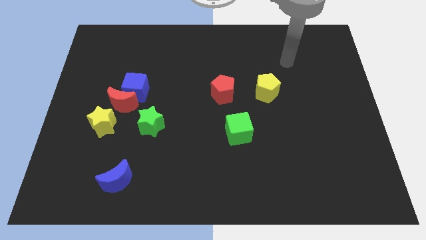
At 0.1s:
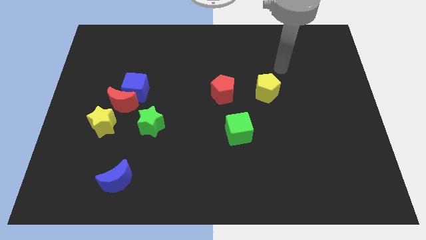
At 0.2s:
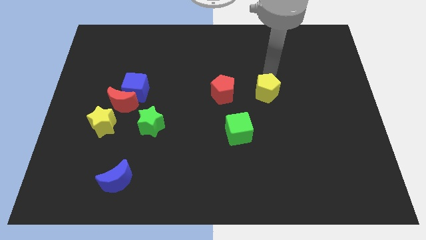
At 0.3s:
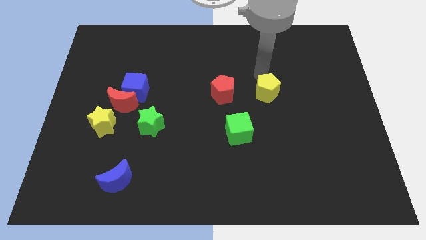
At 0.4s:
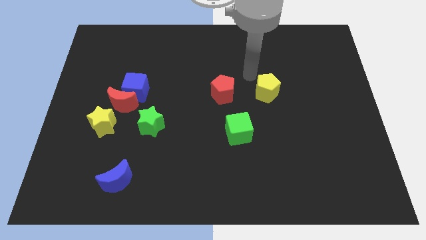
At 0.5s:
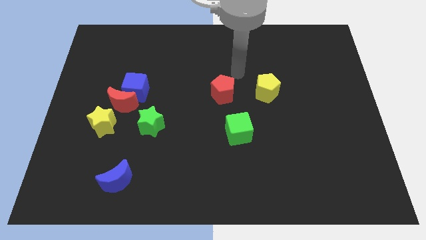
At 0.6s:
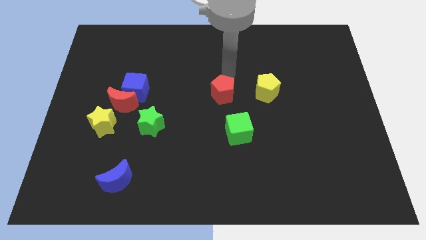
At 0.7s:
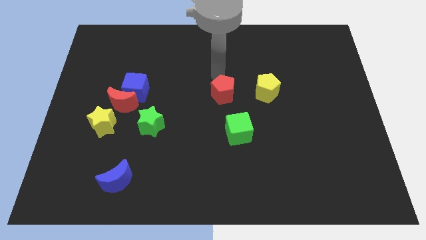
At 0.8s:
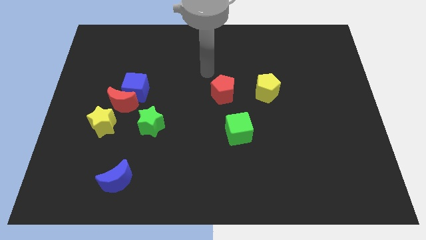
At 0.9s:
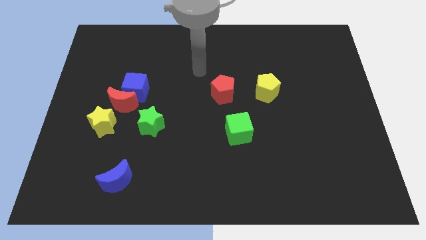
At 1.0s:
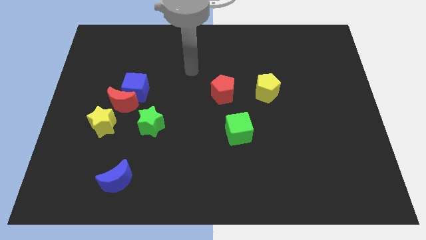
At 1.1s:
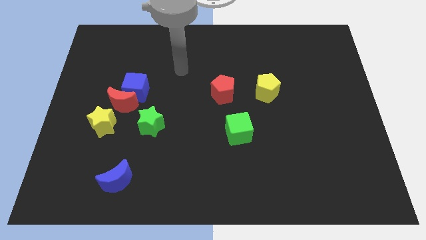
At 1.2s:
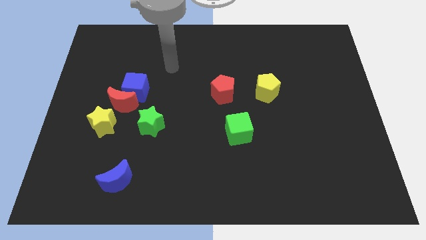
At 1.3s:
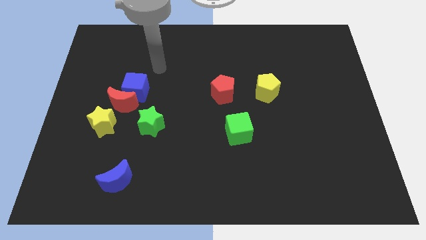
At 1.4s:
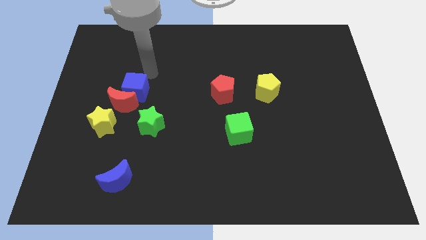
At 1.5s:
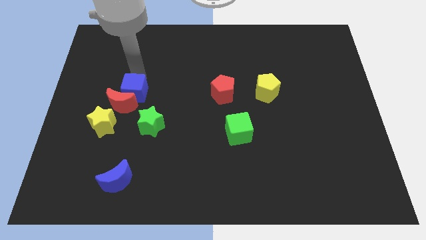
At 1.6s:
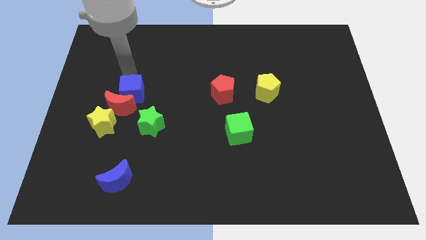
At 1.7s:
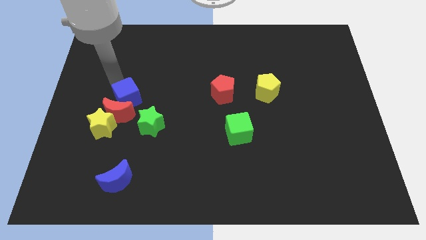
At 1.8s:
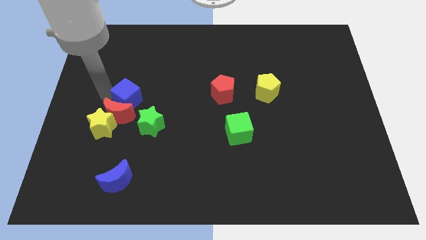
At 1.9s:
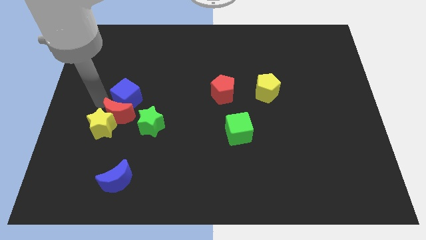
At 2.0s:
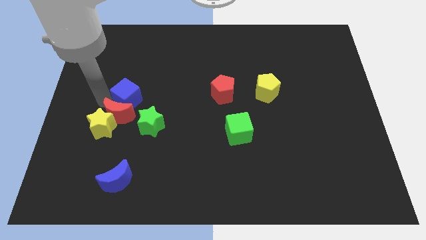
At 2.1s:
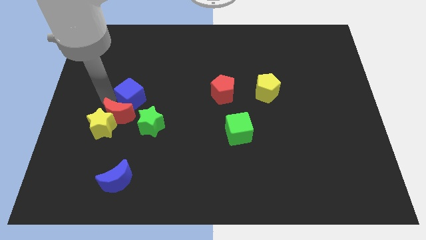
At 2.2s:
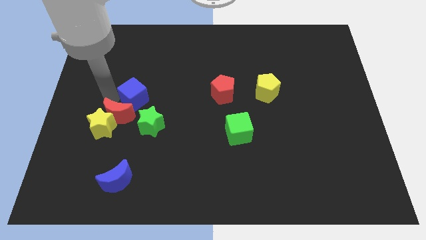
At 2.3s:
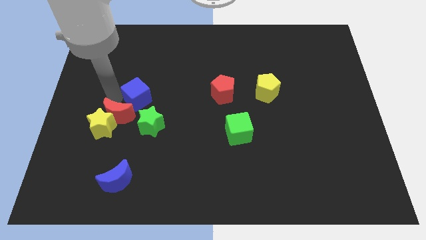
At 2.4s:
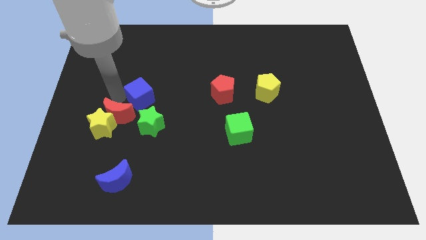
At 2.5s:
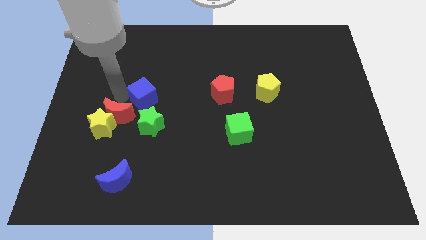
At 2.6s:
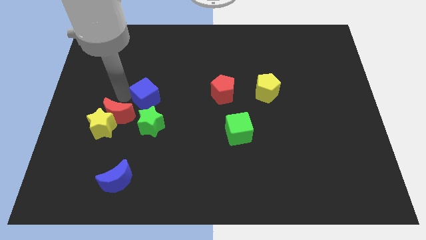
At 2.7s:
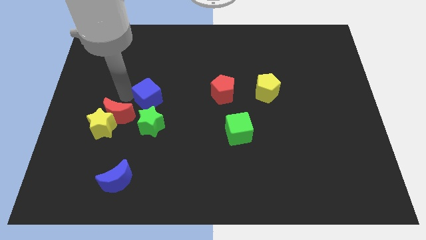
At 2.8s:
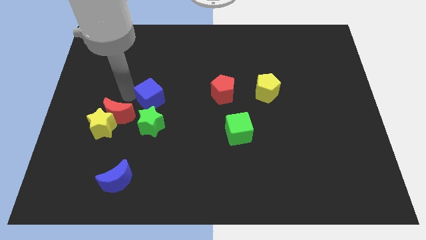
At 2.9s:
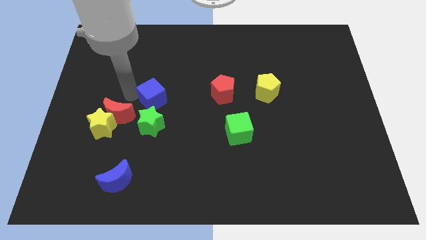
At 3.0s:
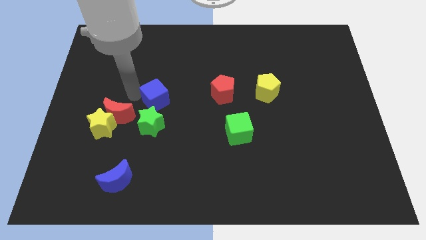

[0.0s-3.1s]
put the blue cube just left of the red pentagon

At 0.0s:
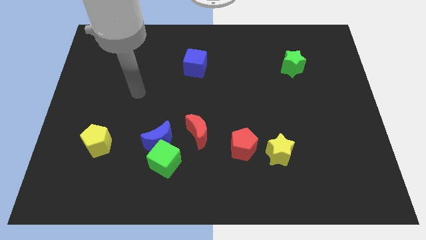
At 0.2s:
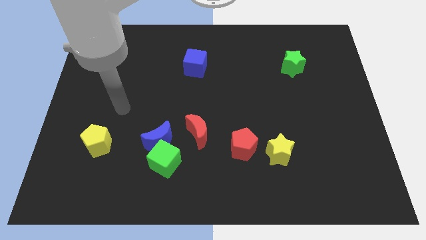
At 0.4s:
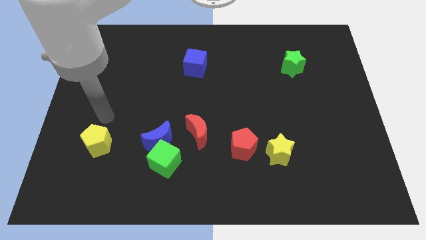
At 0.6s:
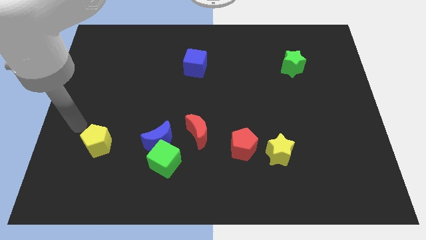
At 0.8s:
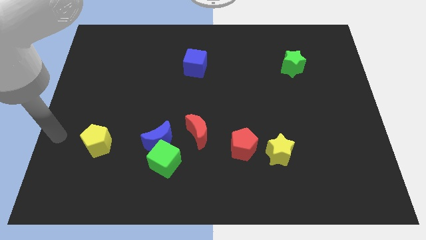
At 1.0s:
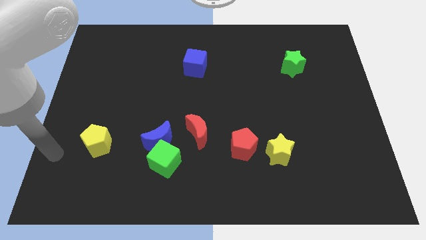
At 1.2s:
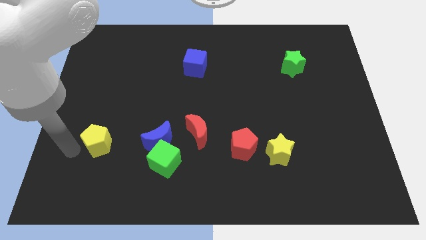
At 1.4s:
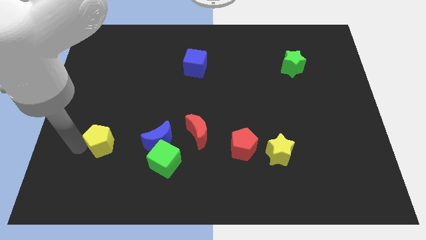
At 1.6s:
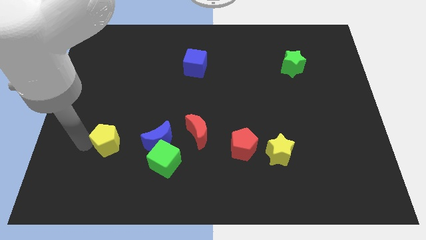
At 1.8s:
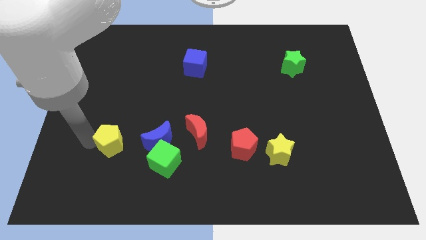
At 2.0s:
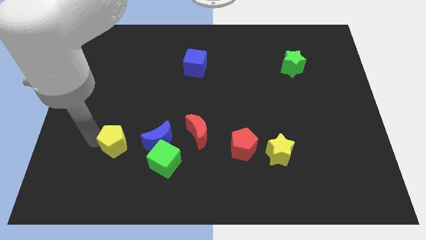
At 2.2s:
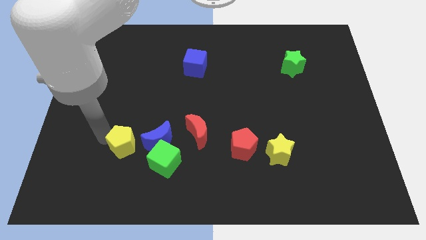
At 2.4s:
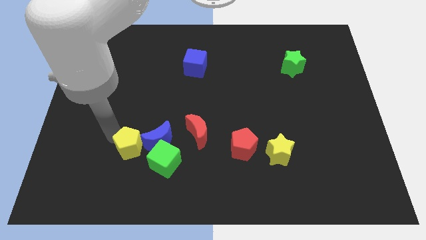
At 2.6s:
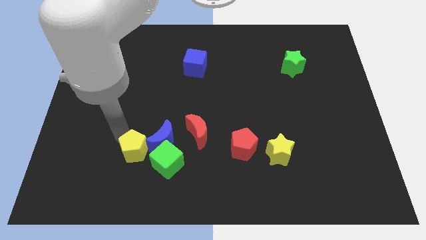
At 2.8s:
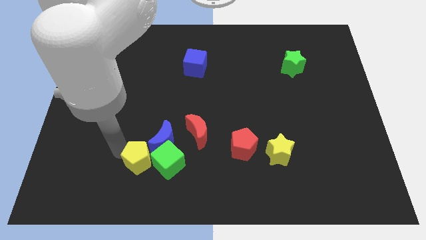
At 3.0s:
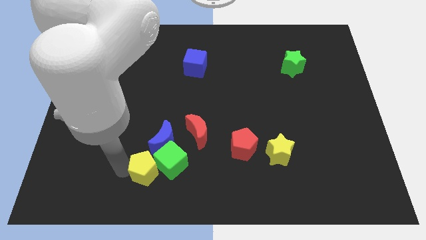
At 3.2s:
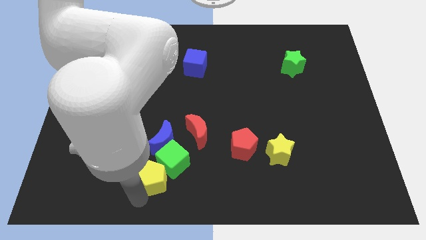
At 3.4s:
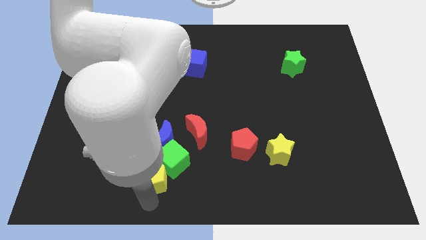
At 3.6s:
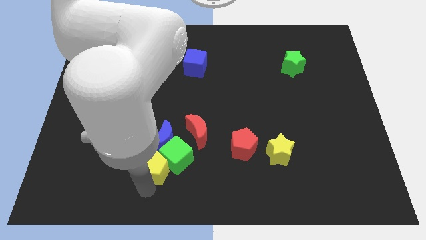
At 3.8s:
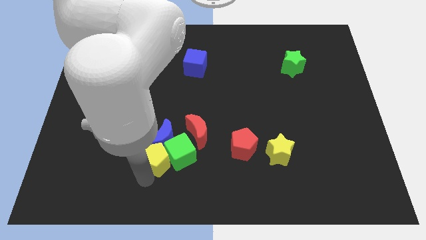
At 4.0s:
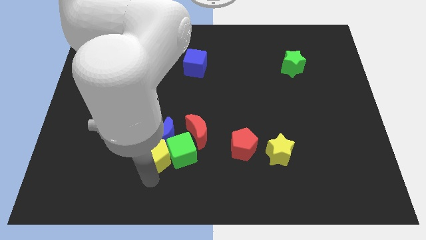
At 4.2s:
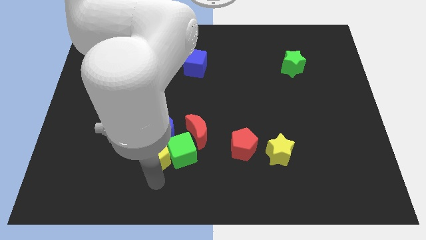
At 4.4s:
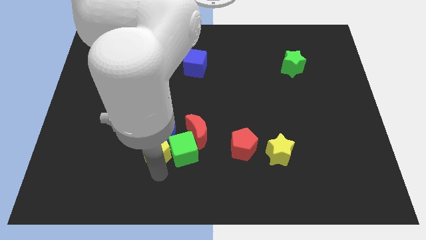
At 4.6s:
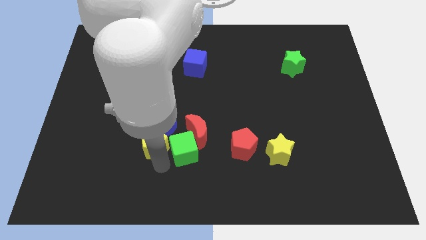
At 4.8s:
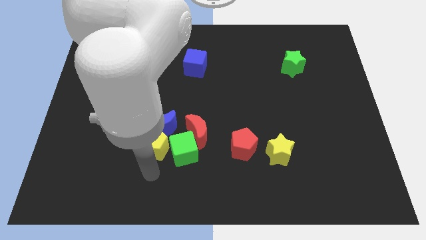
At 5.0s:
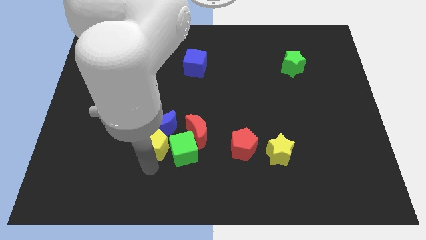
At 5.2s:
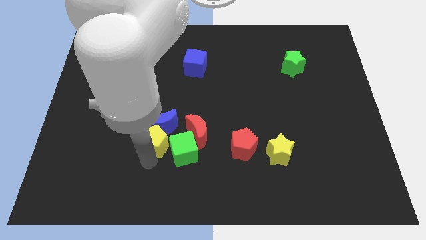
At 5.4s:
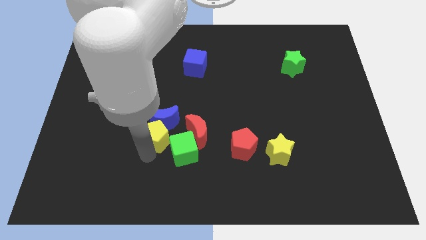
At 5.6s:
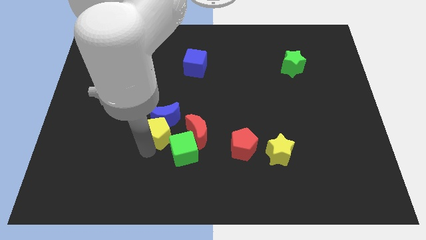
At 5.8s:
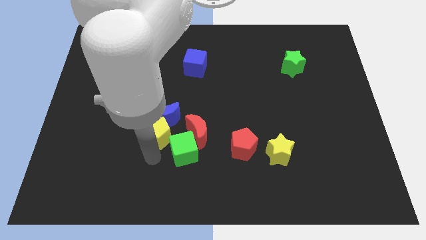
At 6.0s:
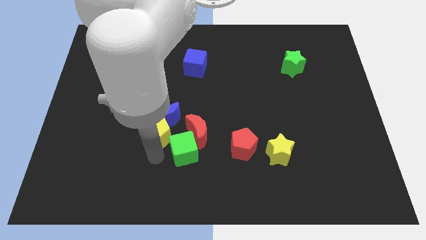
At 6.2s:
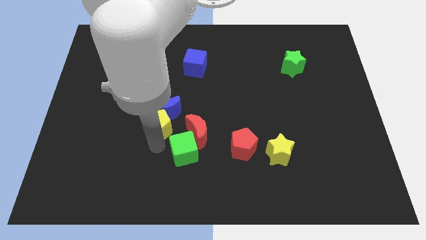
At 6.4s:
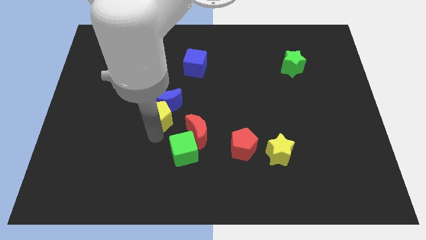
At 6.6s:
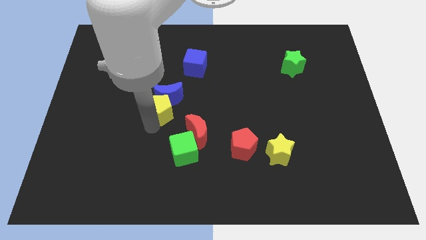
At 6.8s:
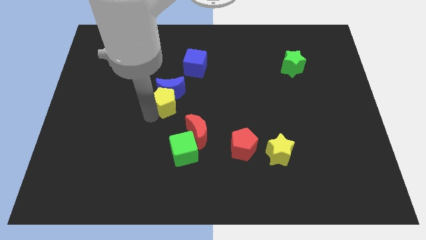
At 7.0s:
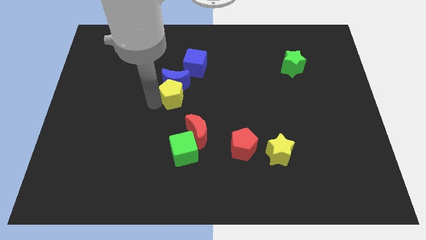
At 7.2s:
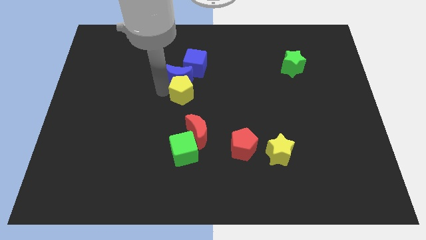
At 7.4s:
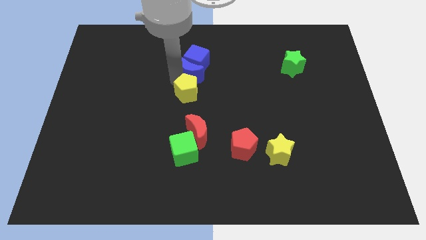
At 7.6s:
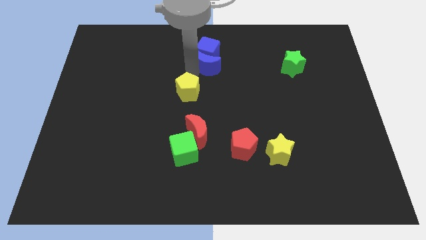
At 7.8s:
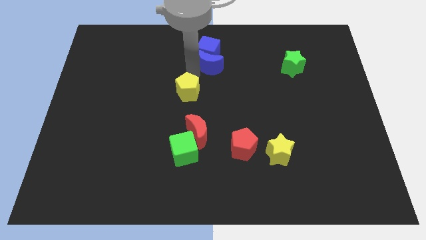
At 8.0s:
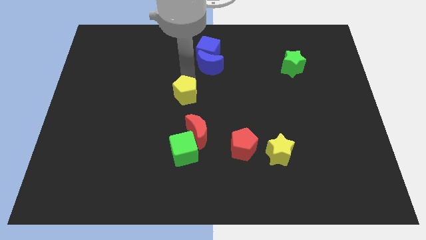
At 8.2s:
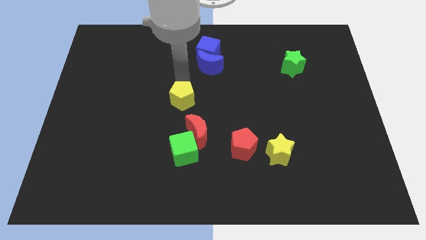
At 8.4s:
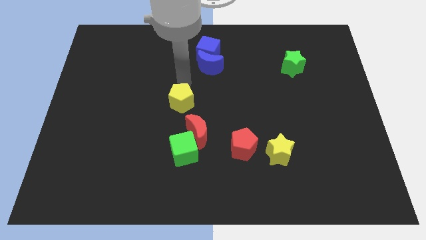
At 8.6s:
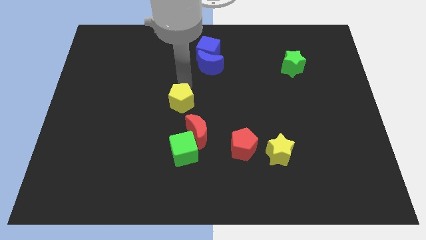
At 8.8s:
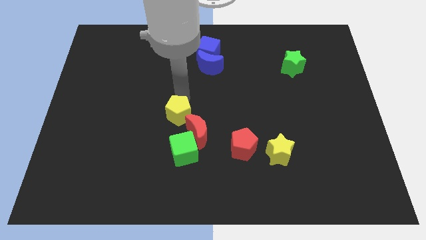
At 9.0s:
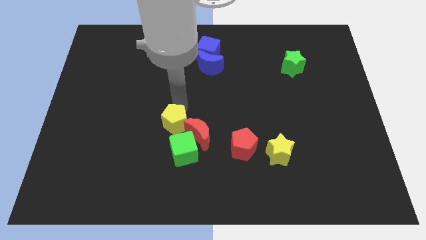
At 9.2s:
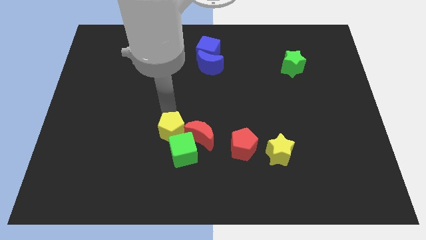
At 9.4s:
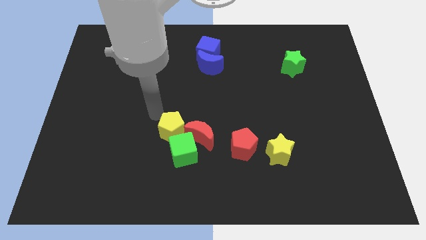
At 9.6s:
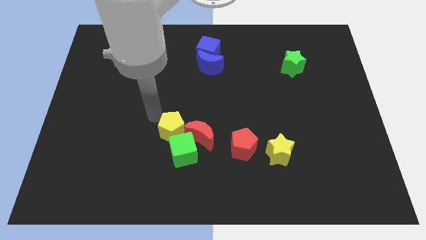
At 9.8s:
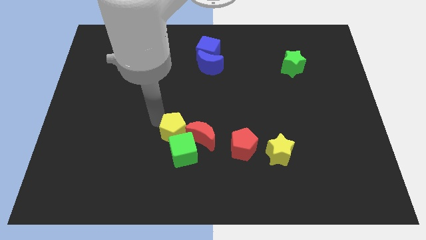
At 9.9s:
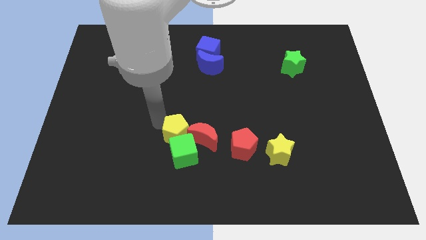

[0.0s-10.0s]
put the yellow pentagon to the left of the red pentagon

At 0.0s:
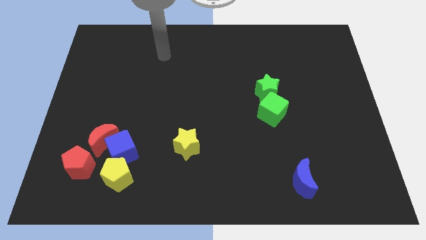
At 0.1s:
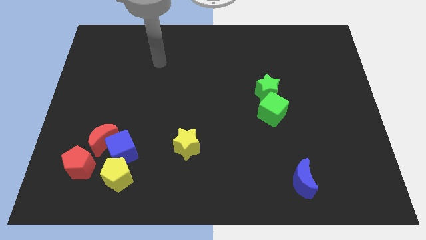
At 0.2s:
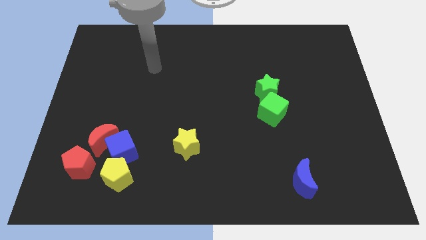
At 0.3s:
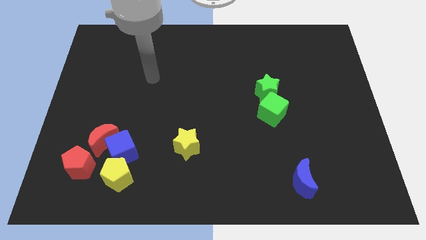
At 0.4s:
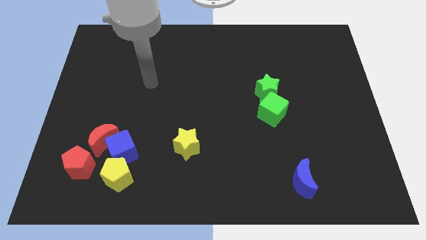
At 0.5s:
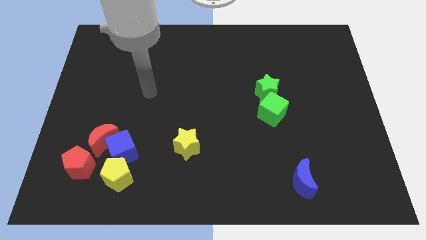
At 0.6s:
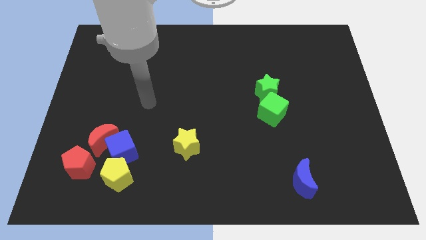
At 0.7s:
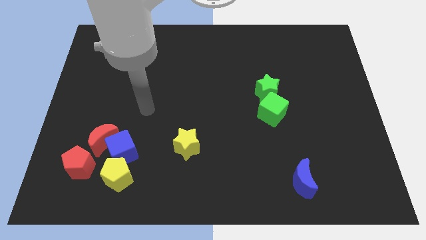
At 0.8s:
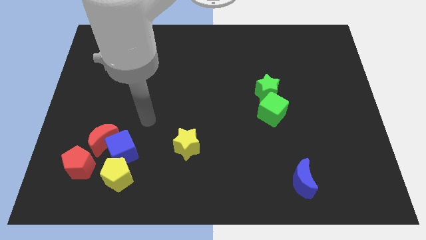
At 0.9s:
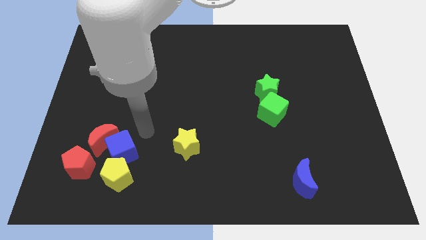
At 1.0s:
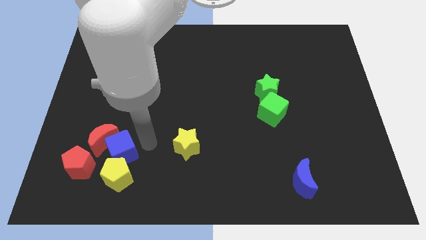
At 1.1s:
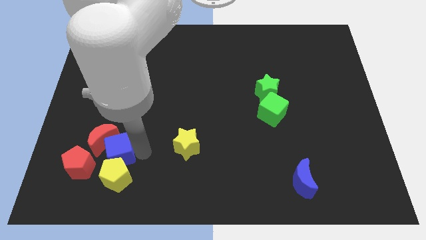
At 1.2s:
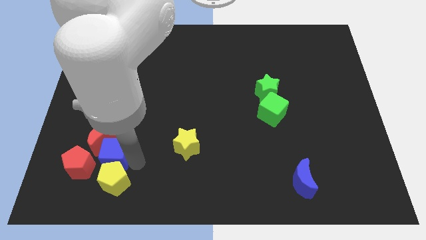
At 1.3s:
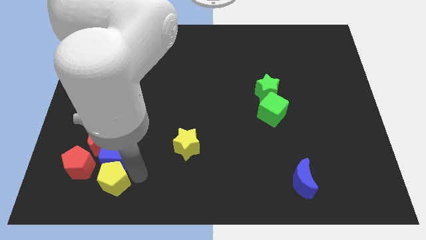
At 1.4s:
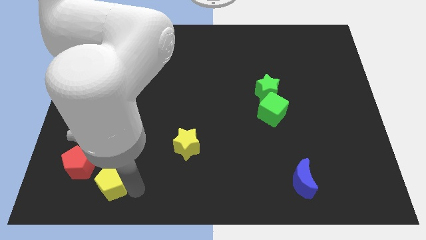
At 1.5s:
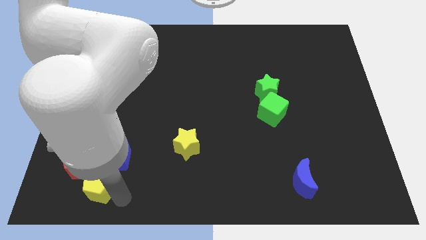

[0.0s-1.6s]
move the red pentagon above the yellow pentagon
